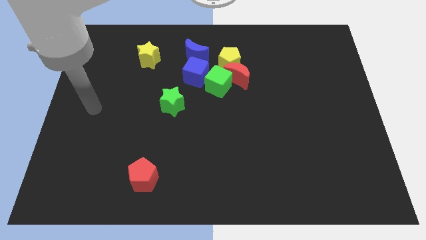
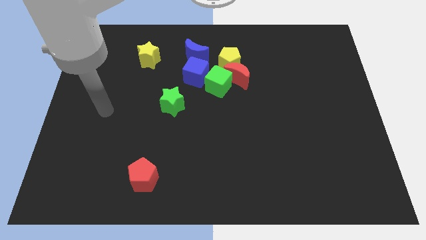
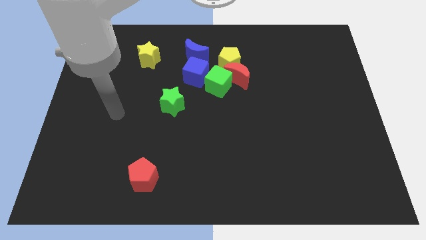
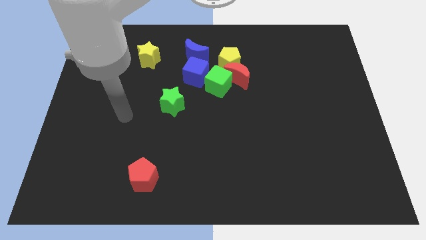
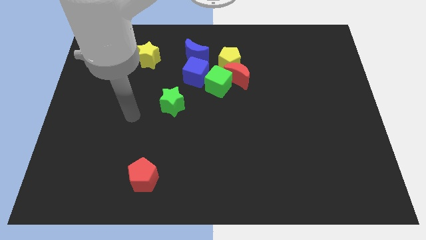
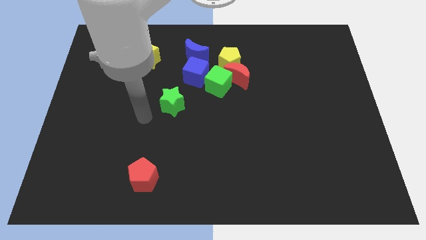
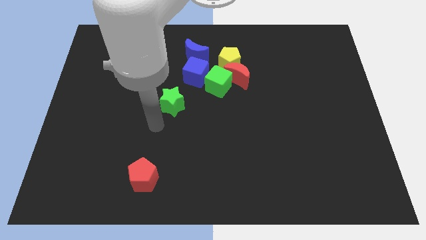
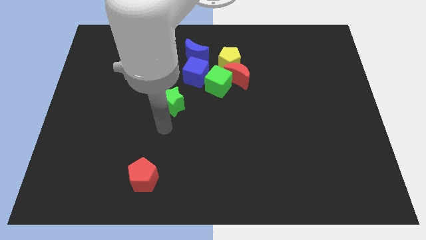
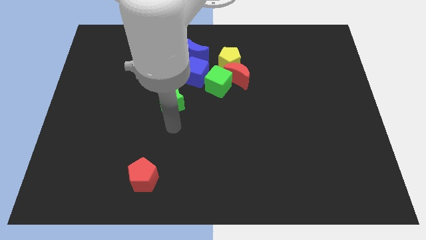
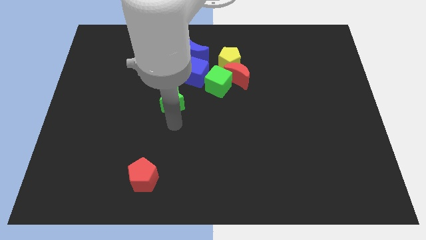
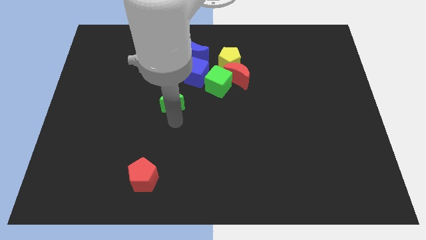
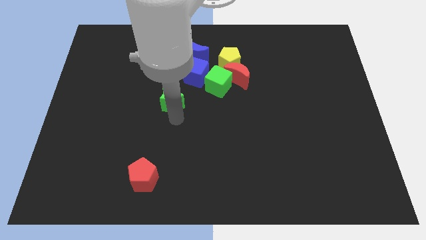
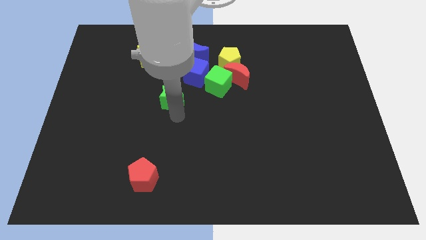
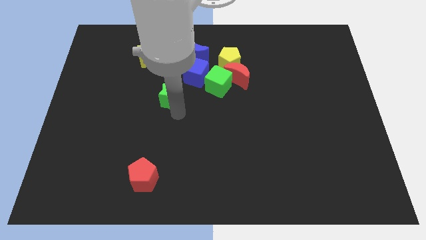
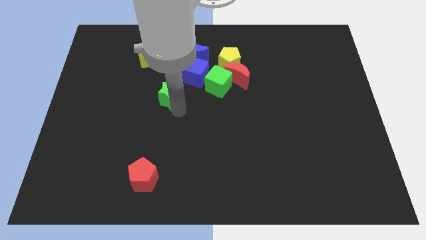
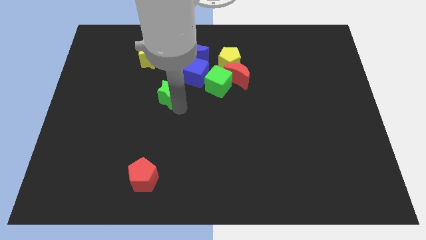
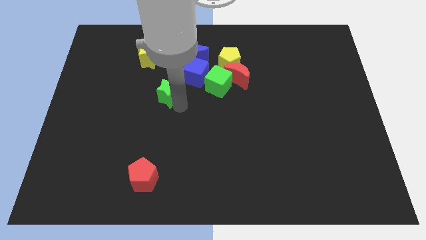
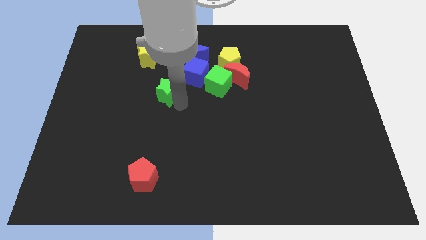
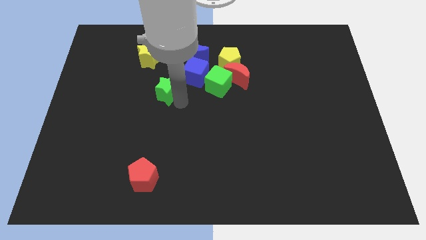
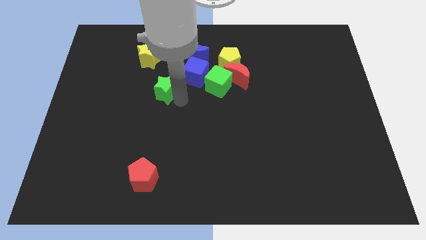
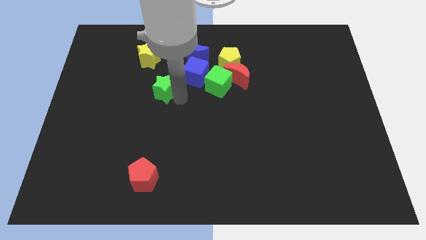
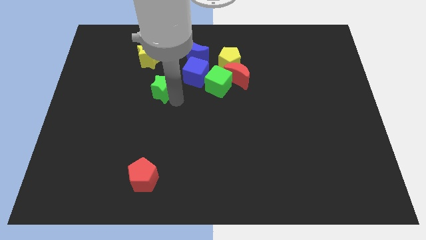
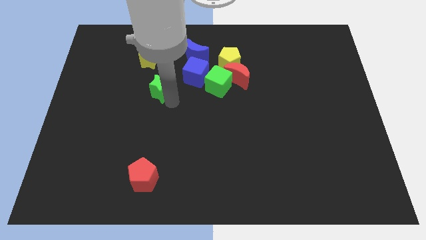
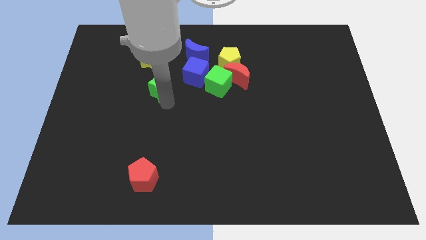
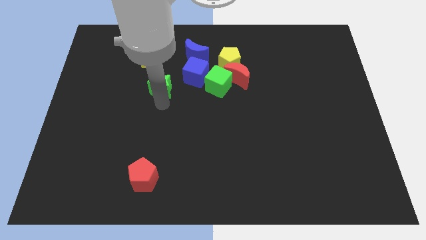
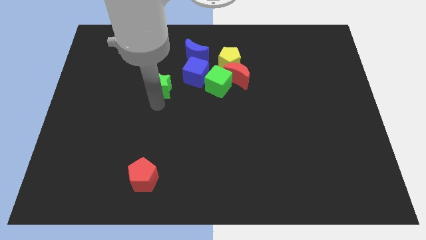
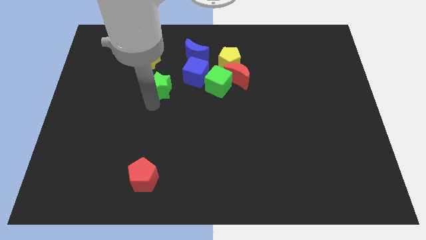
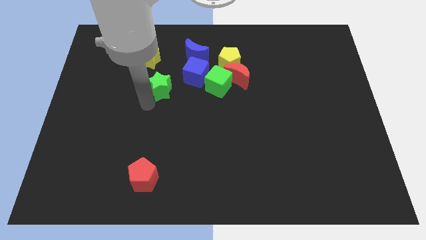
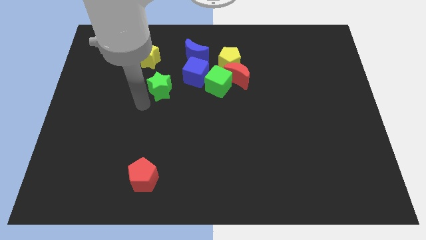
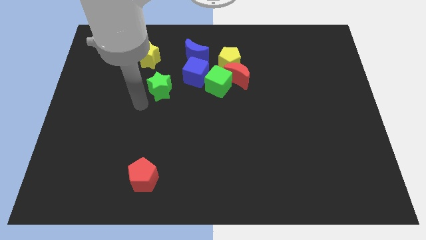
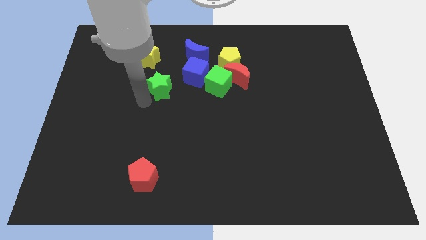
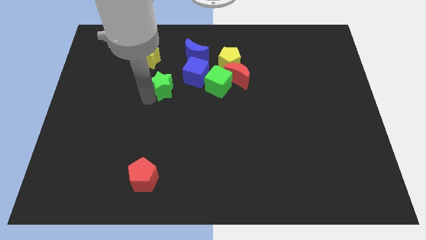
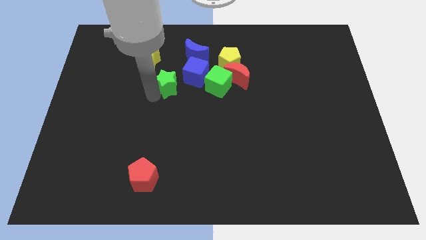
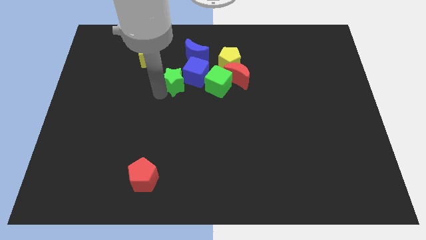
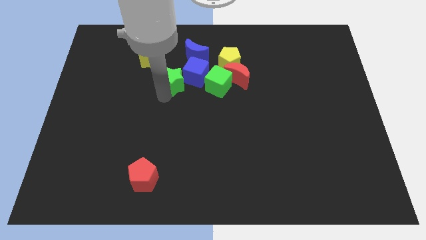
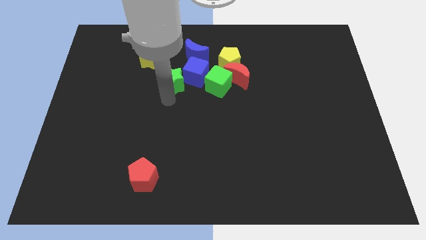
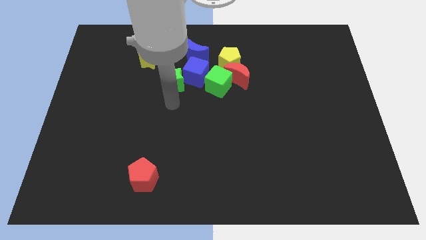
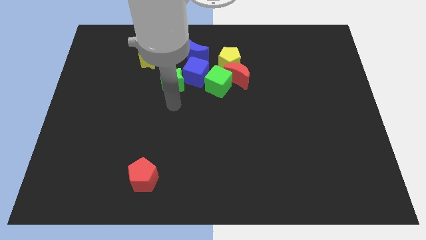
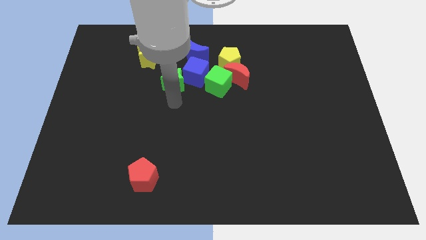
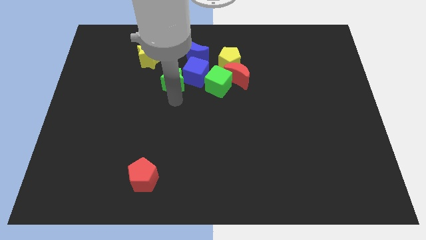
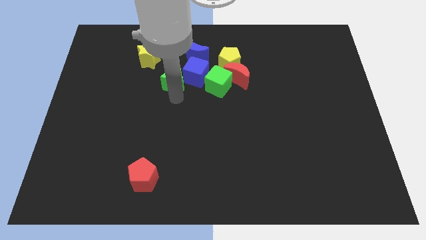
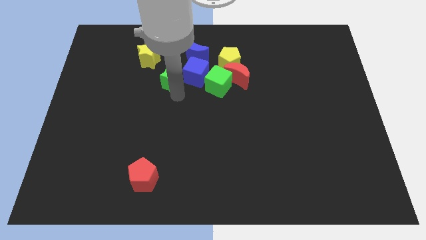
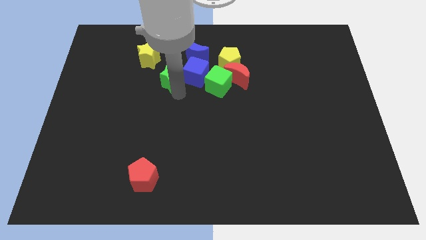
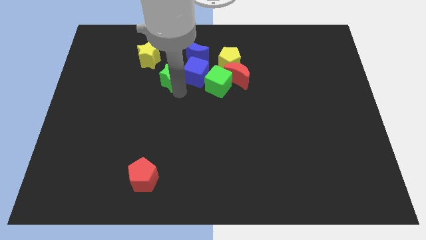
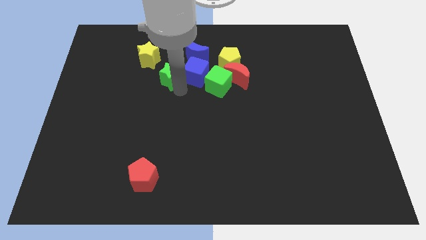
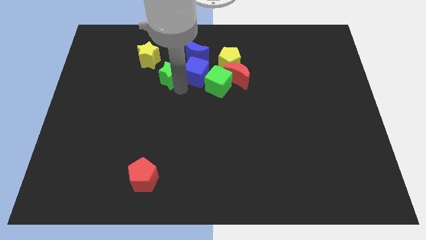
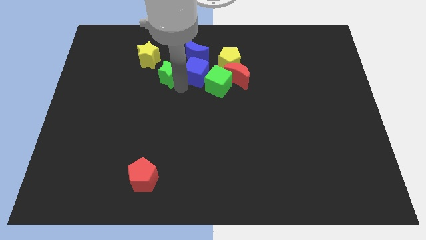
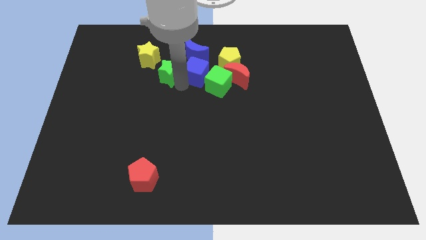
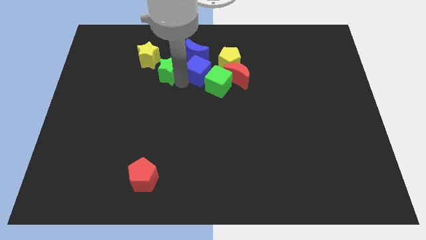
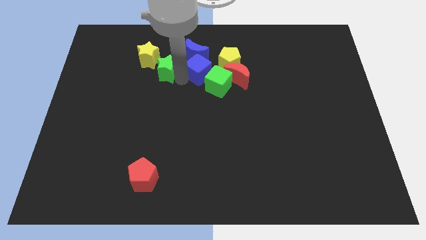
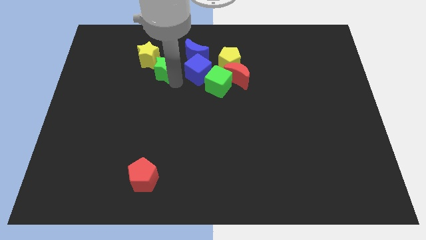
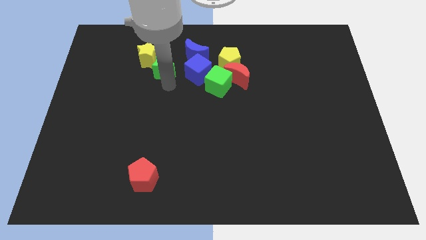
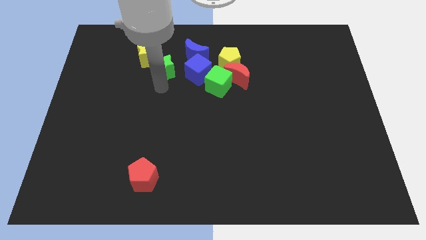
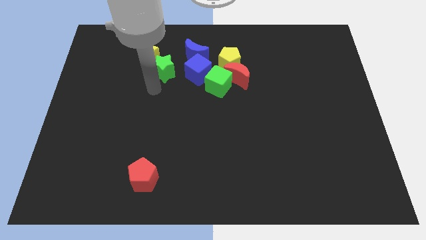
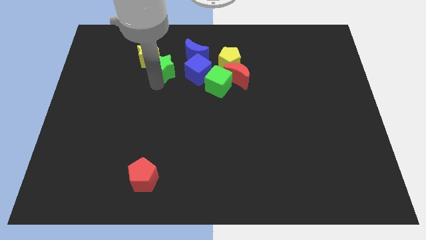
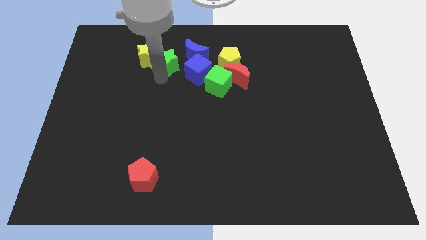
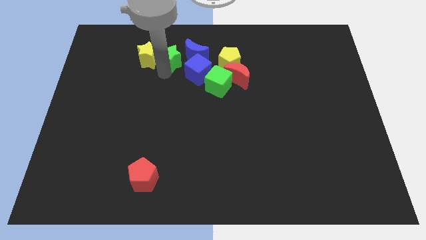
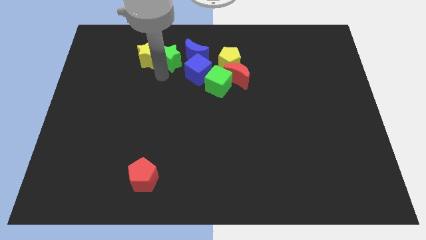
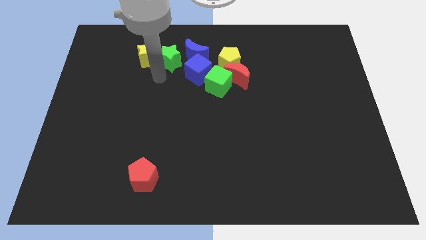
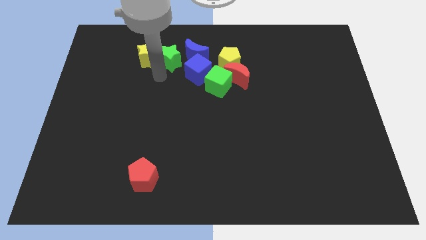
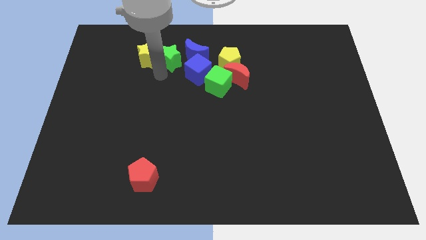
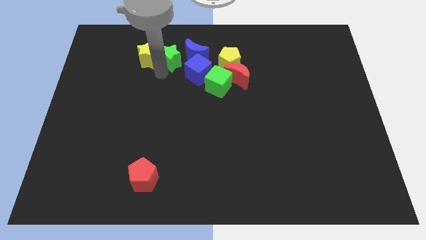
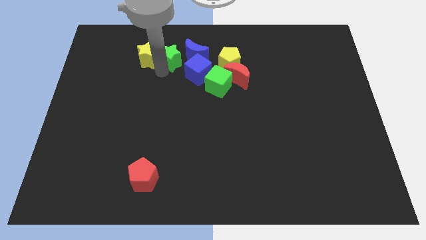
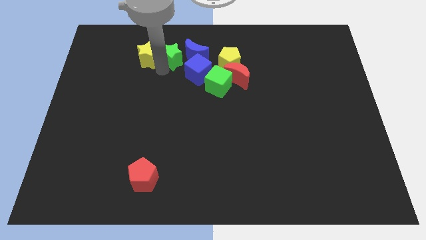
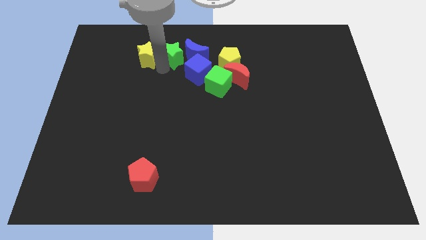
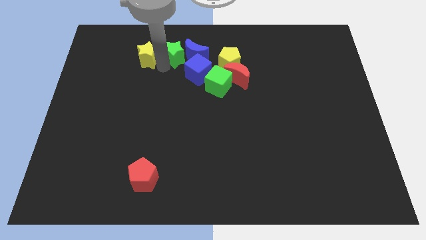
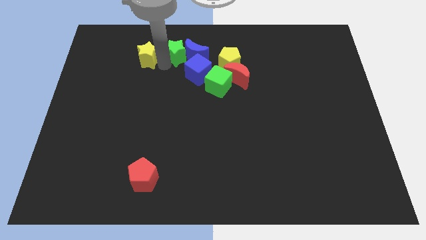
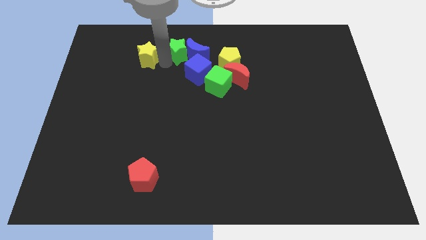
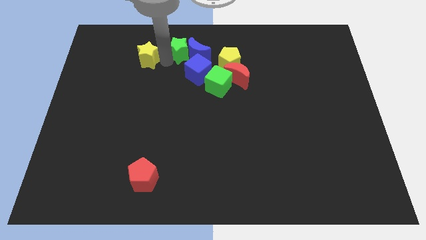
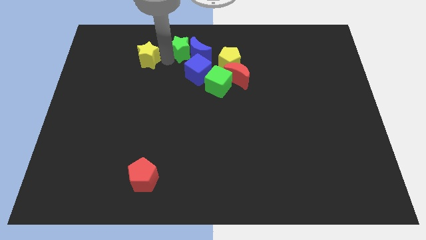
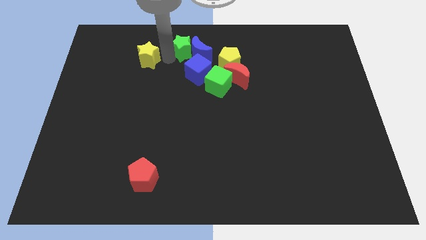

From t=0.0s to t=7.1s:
move the green star to the towards your base
